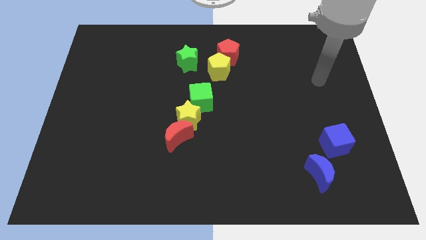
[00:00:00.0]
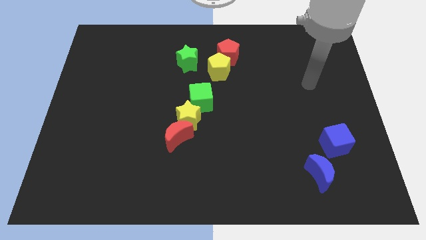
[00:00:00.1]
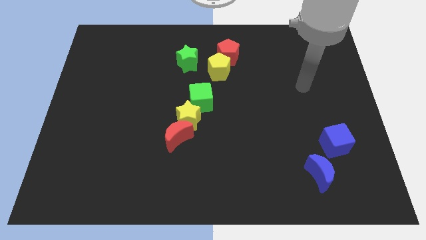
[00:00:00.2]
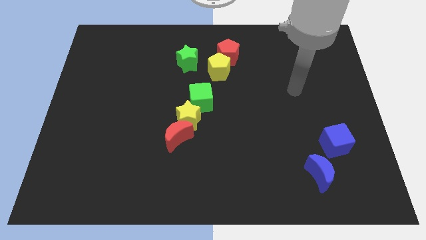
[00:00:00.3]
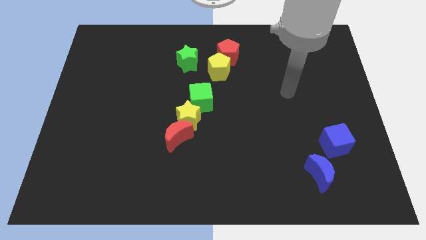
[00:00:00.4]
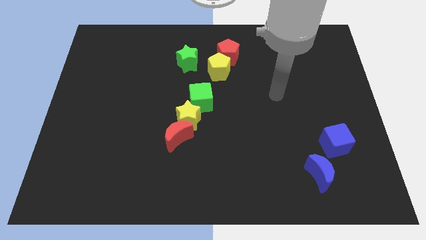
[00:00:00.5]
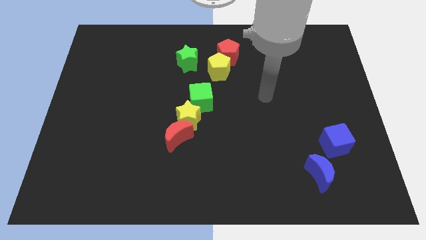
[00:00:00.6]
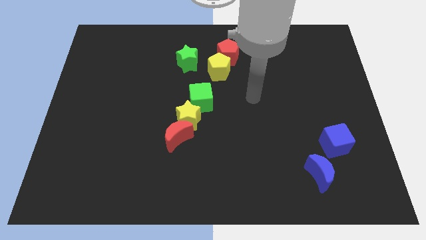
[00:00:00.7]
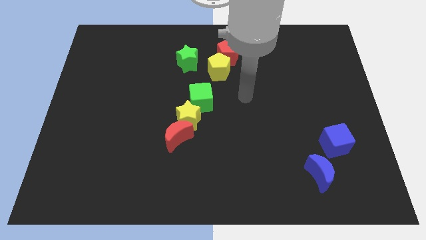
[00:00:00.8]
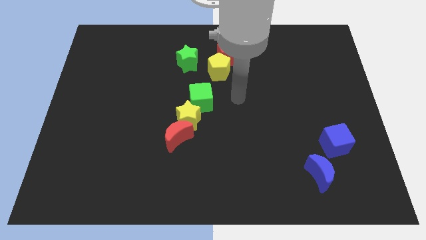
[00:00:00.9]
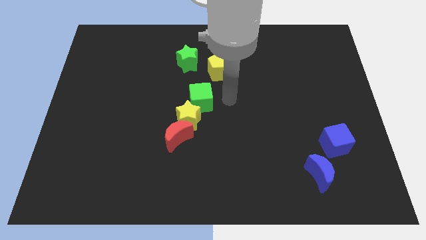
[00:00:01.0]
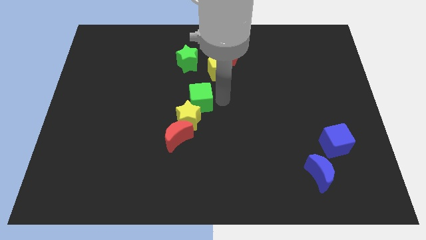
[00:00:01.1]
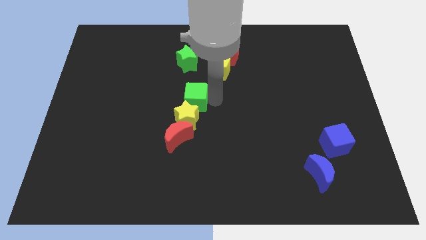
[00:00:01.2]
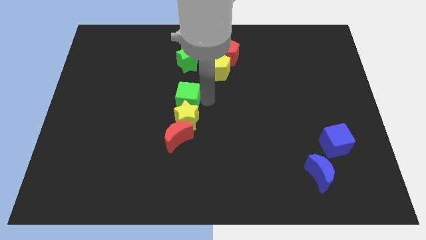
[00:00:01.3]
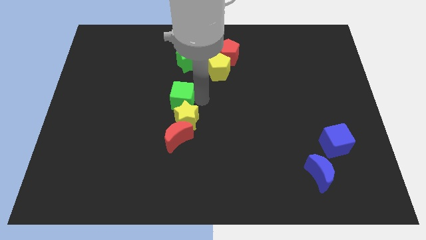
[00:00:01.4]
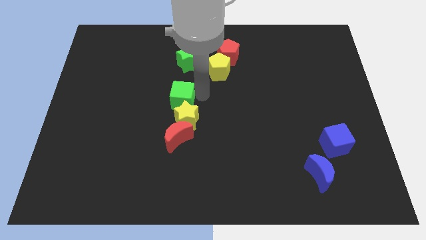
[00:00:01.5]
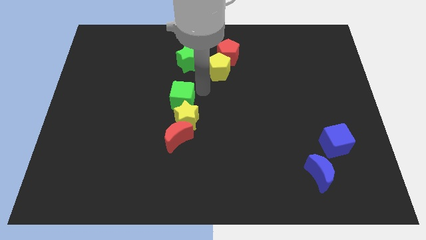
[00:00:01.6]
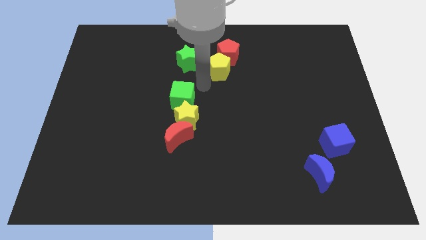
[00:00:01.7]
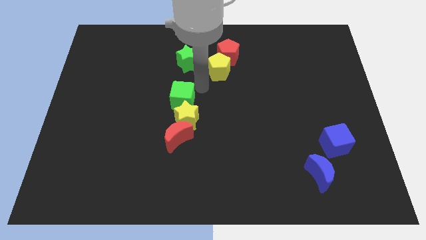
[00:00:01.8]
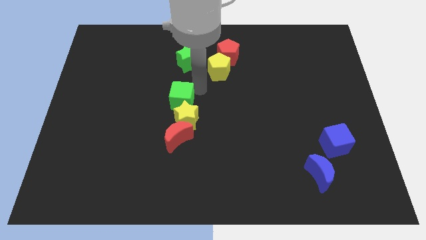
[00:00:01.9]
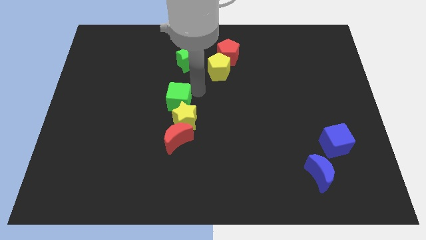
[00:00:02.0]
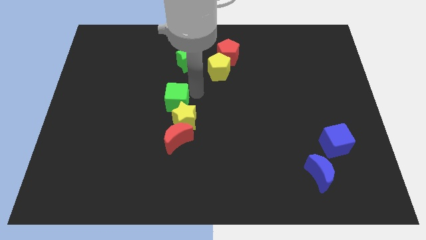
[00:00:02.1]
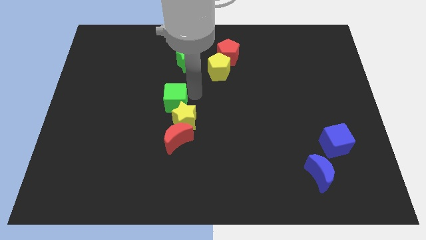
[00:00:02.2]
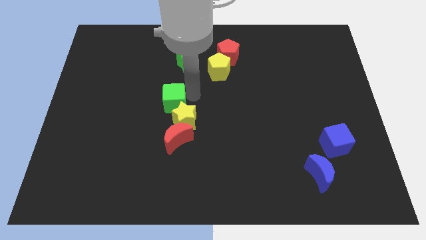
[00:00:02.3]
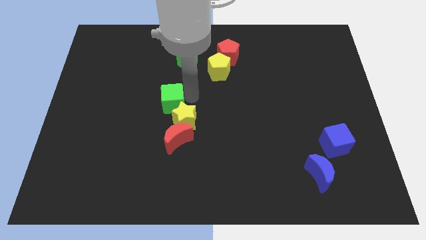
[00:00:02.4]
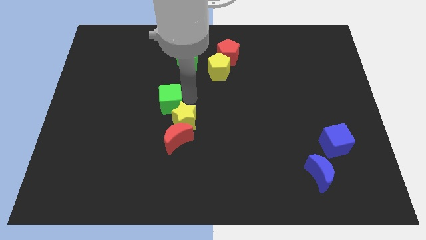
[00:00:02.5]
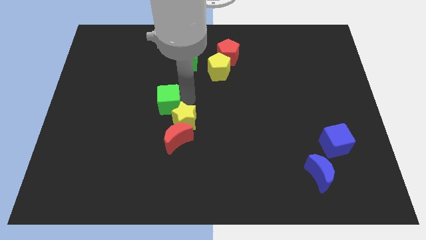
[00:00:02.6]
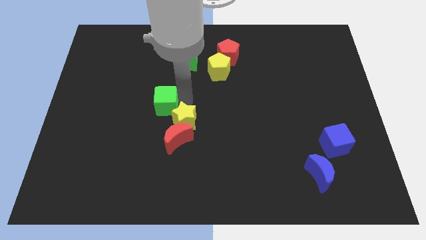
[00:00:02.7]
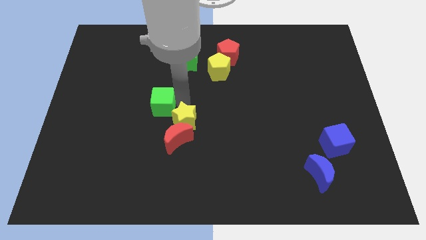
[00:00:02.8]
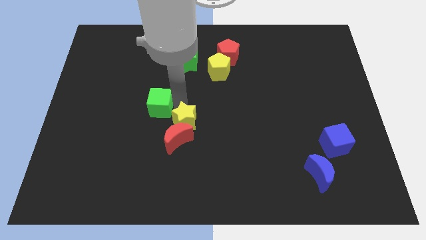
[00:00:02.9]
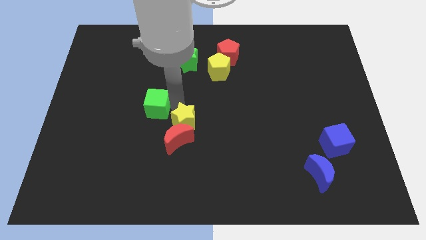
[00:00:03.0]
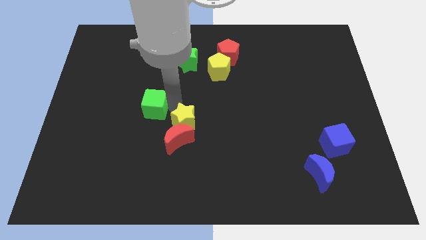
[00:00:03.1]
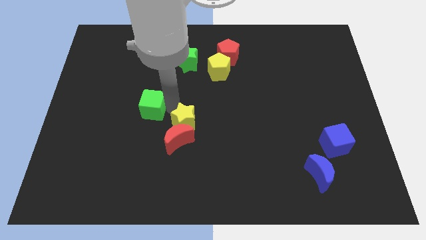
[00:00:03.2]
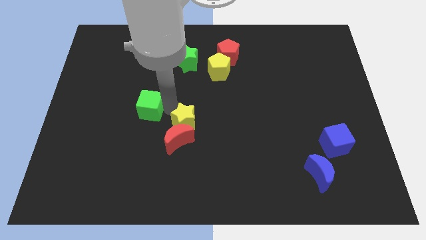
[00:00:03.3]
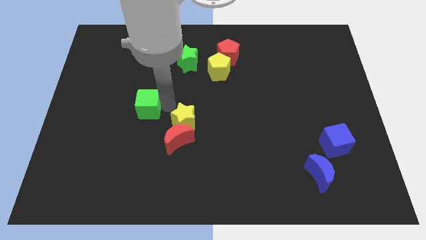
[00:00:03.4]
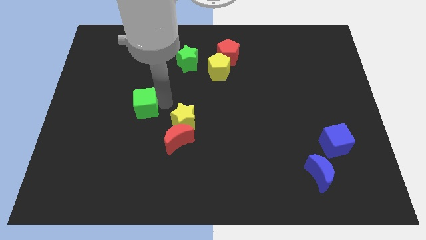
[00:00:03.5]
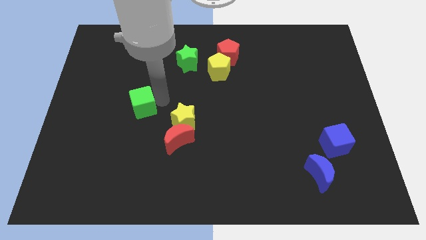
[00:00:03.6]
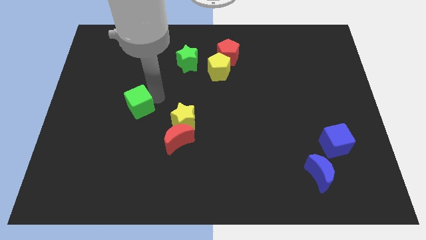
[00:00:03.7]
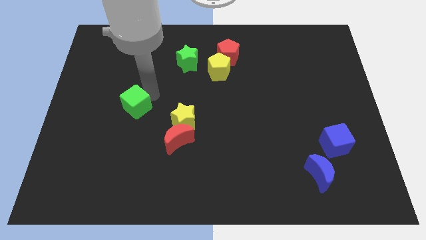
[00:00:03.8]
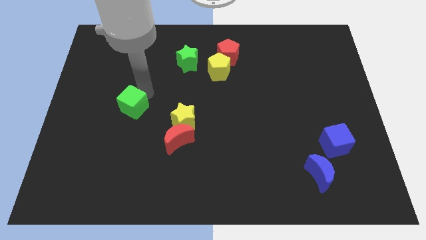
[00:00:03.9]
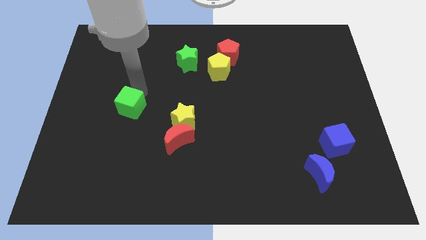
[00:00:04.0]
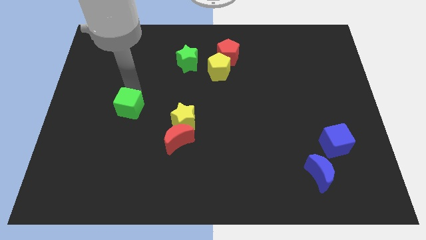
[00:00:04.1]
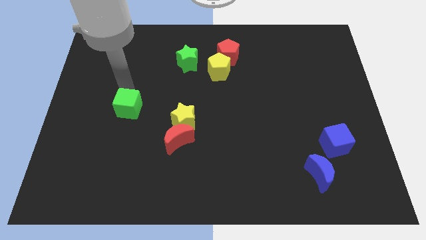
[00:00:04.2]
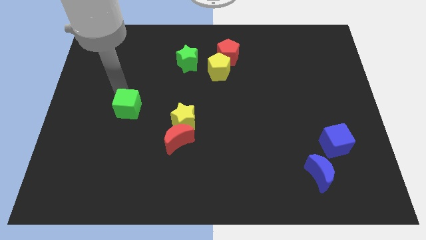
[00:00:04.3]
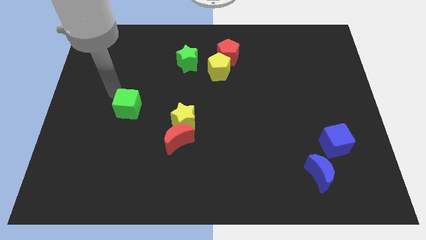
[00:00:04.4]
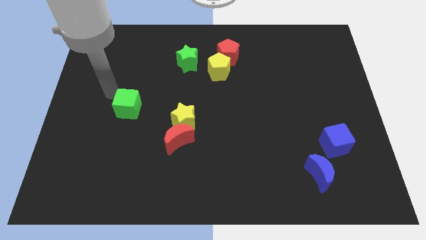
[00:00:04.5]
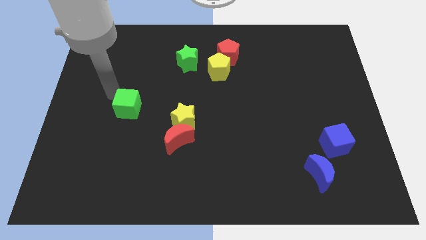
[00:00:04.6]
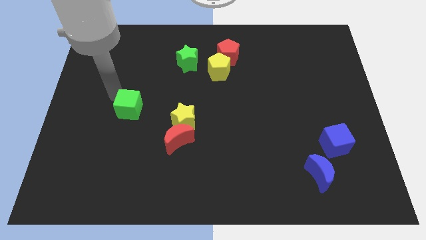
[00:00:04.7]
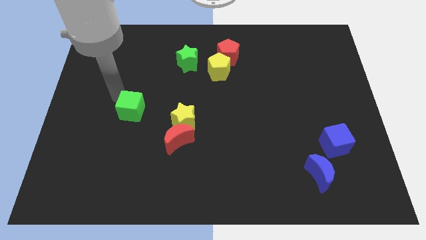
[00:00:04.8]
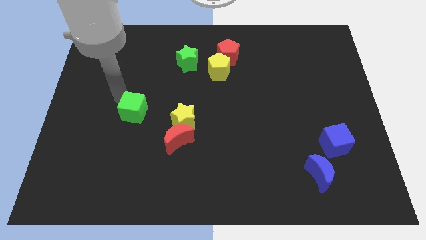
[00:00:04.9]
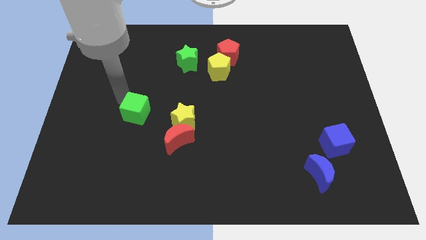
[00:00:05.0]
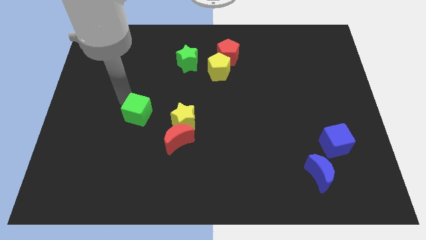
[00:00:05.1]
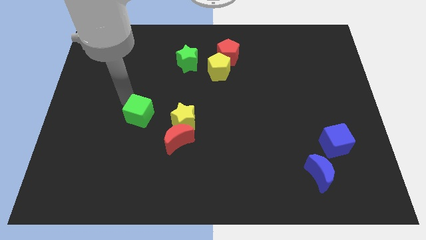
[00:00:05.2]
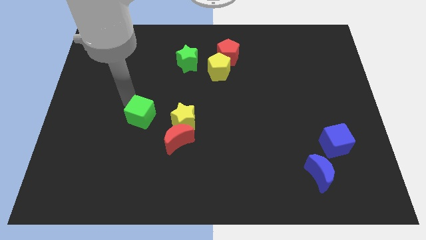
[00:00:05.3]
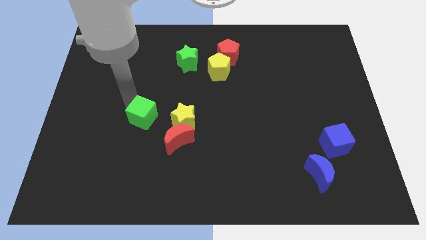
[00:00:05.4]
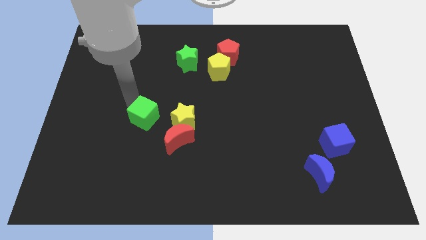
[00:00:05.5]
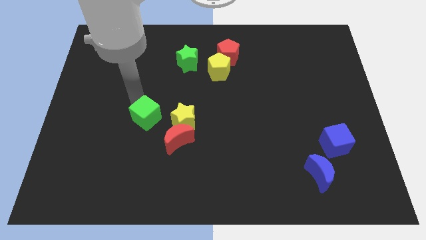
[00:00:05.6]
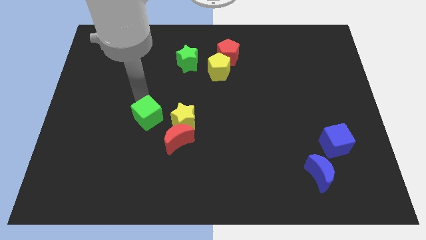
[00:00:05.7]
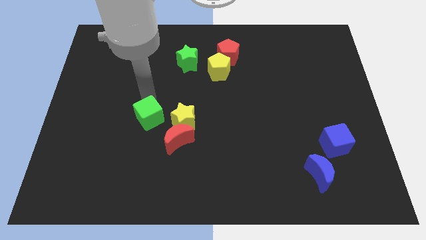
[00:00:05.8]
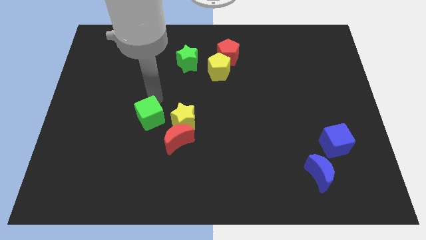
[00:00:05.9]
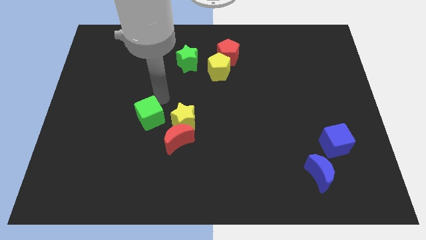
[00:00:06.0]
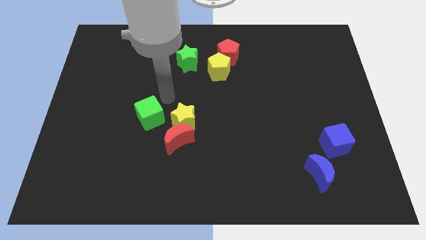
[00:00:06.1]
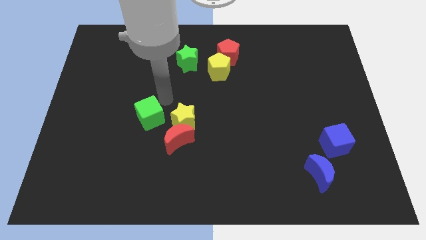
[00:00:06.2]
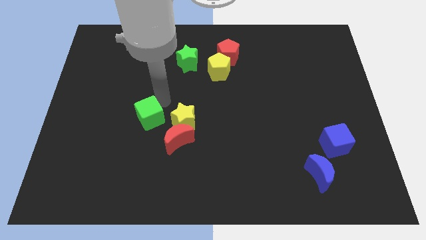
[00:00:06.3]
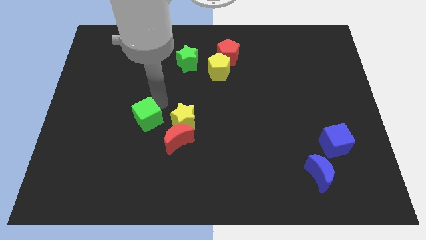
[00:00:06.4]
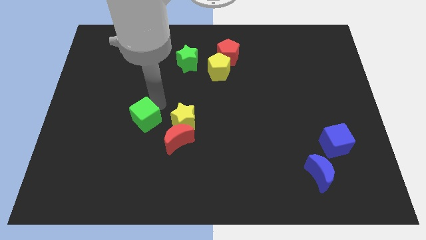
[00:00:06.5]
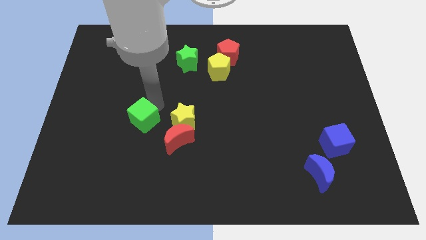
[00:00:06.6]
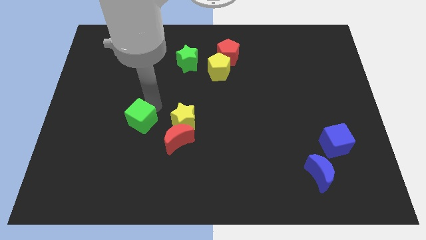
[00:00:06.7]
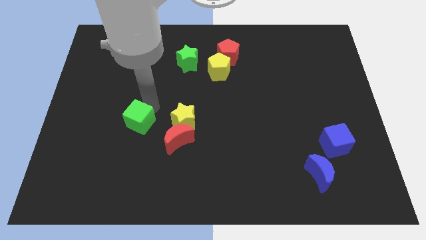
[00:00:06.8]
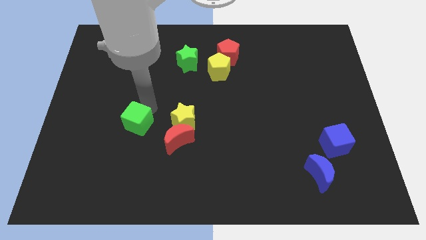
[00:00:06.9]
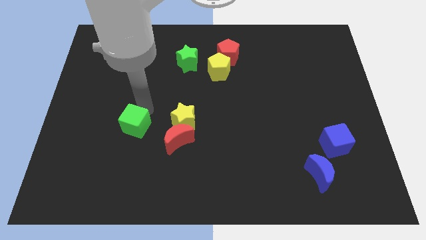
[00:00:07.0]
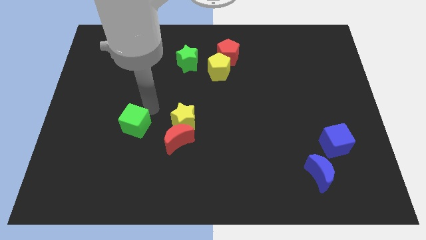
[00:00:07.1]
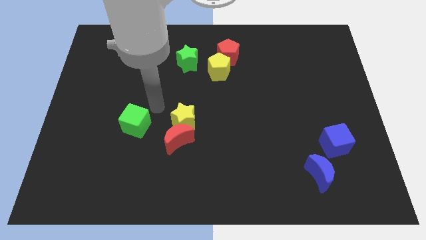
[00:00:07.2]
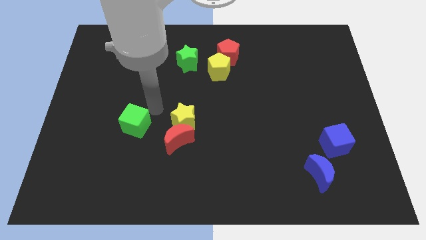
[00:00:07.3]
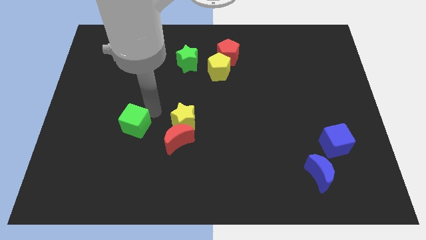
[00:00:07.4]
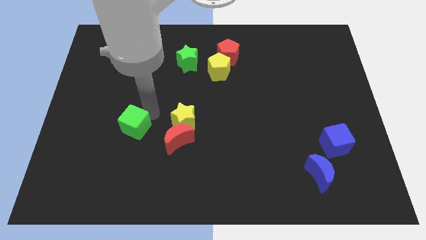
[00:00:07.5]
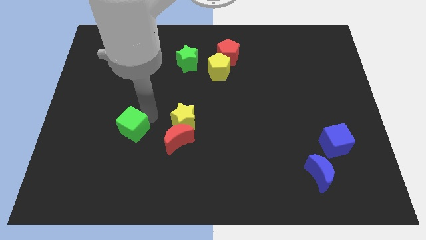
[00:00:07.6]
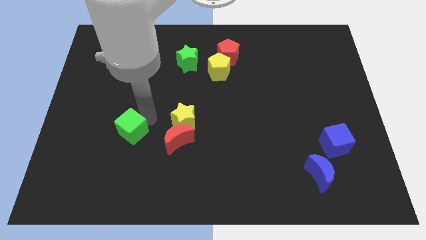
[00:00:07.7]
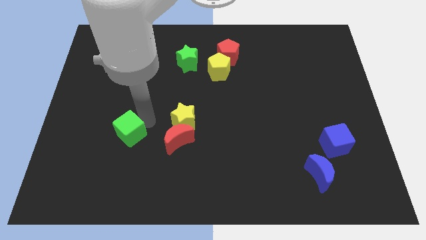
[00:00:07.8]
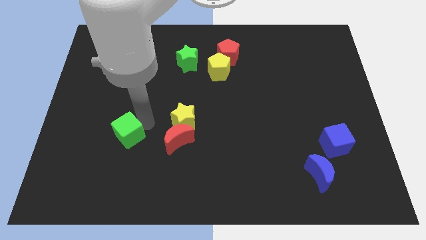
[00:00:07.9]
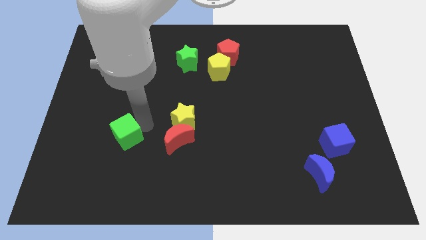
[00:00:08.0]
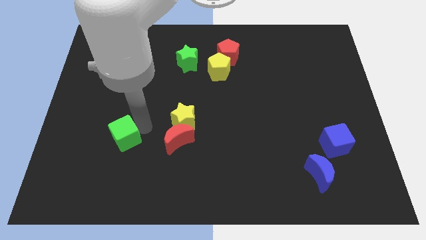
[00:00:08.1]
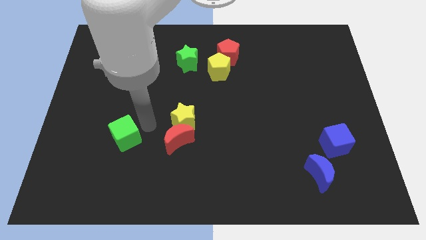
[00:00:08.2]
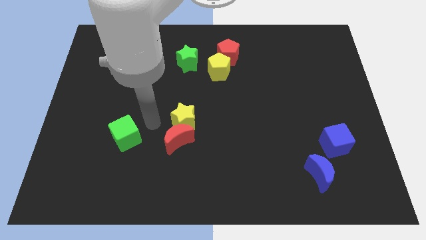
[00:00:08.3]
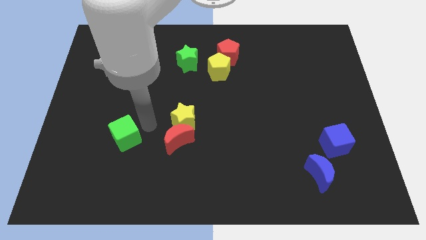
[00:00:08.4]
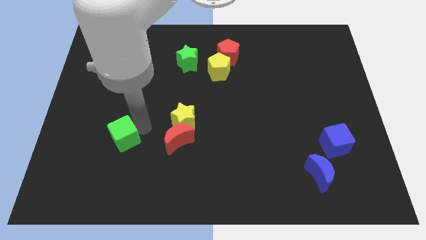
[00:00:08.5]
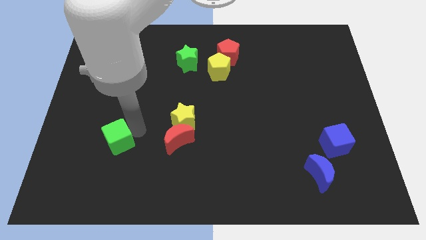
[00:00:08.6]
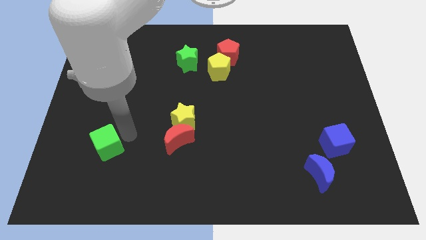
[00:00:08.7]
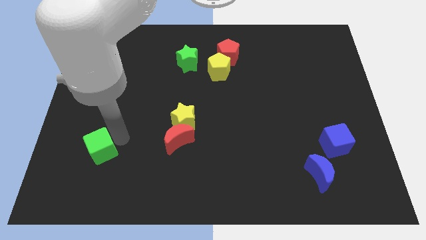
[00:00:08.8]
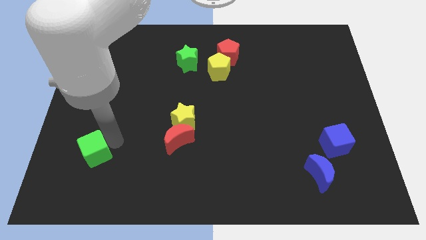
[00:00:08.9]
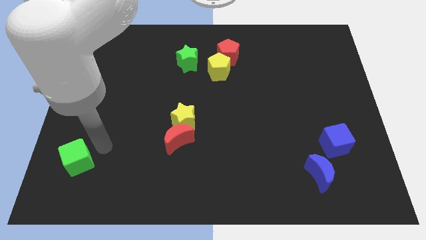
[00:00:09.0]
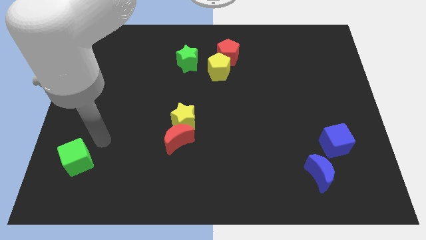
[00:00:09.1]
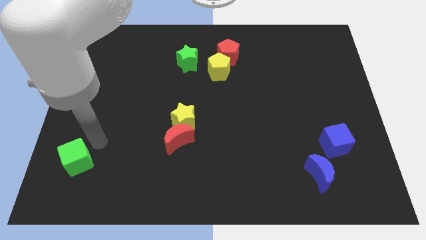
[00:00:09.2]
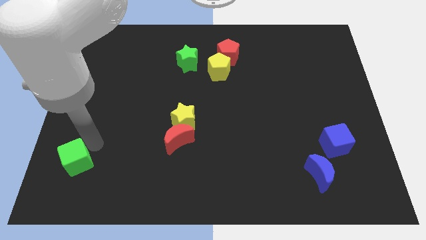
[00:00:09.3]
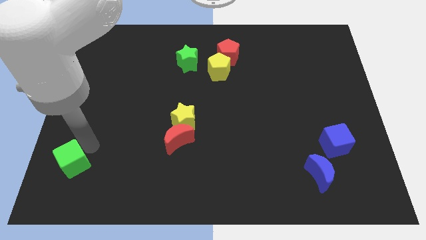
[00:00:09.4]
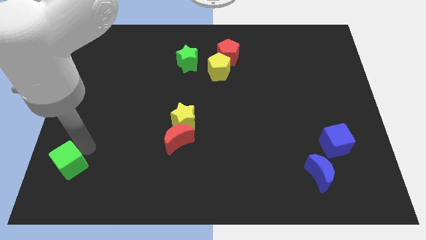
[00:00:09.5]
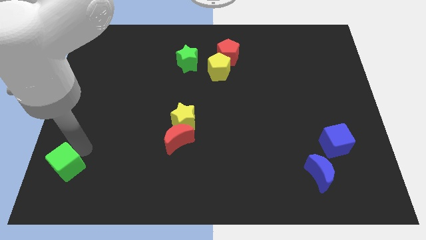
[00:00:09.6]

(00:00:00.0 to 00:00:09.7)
push the green cube to the lower left corner
